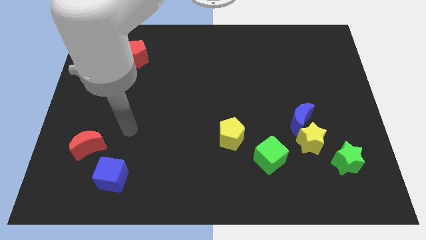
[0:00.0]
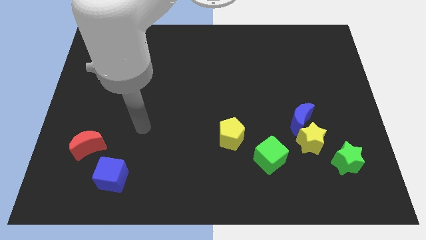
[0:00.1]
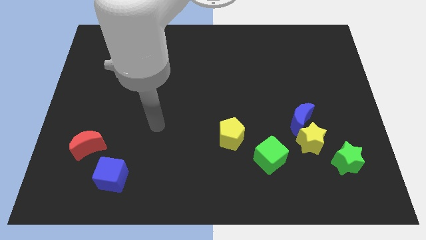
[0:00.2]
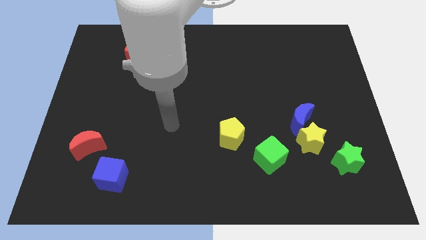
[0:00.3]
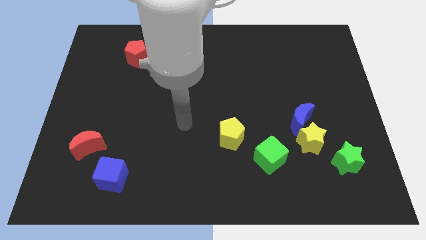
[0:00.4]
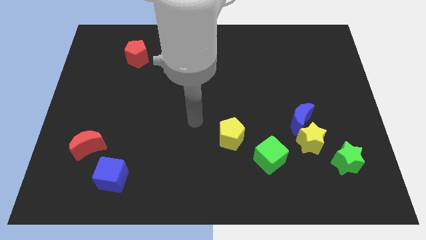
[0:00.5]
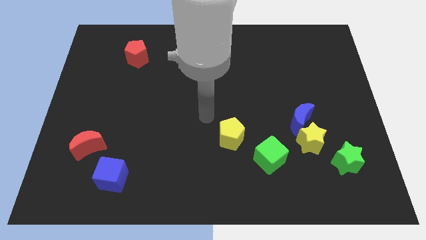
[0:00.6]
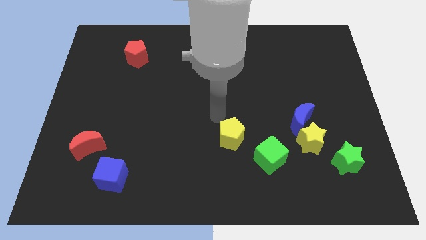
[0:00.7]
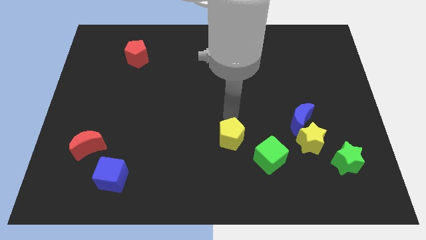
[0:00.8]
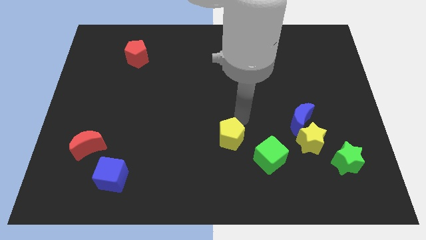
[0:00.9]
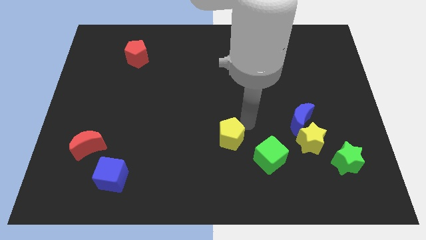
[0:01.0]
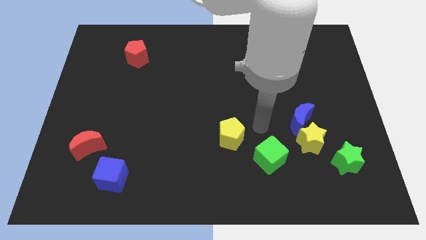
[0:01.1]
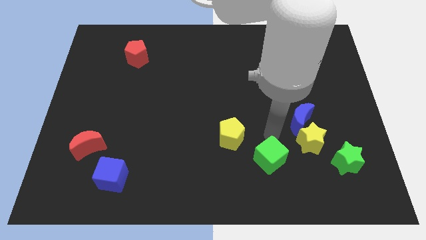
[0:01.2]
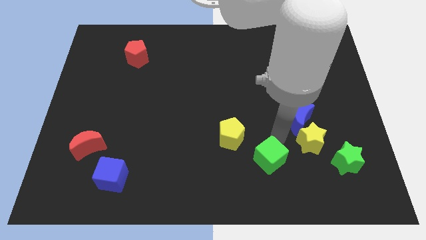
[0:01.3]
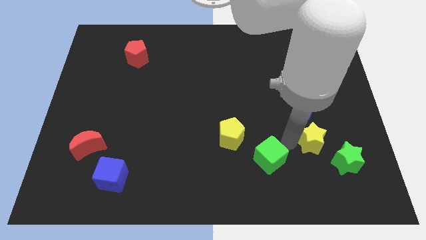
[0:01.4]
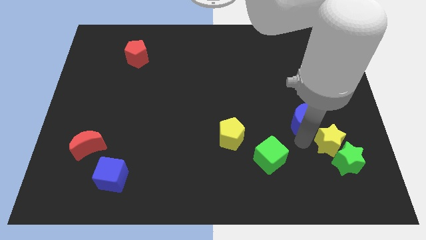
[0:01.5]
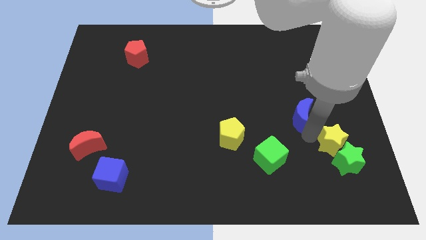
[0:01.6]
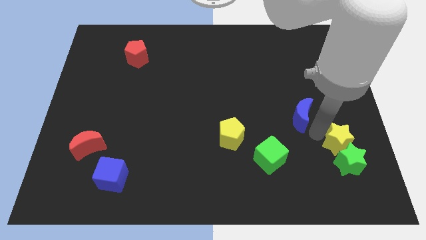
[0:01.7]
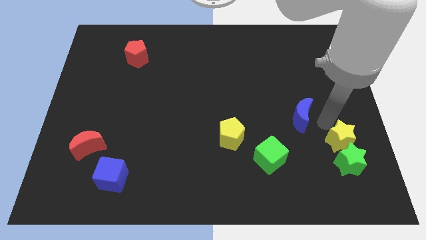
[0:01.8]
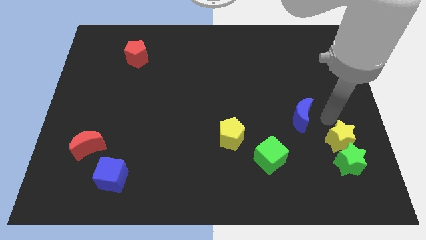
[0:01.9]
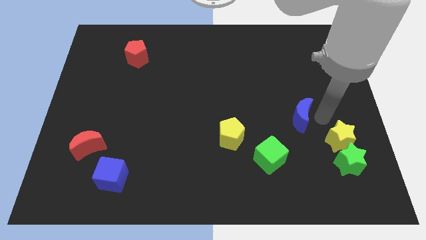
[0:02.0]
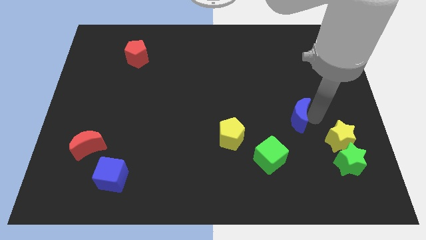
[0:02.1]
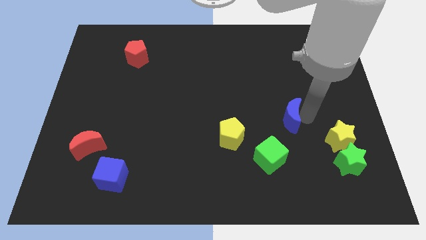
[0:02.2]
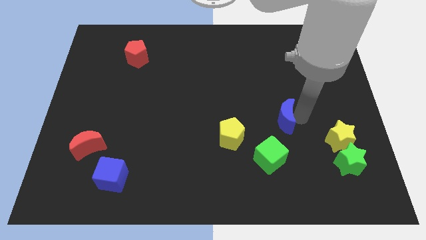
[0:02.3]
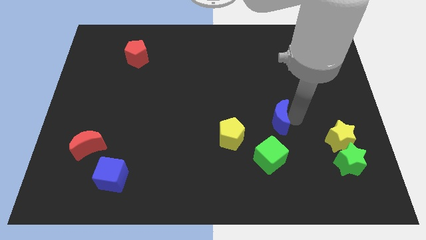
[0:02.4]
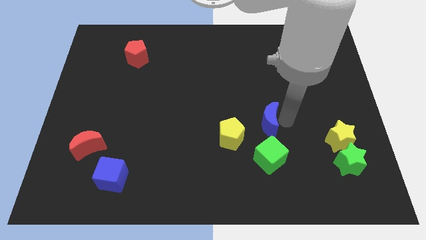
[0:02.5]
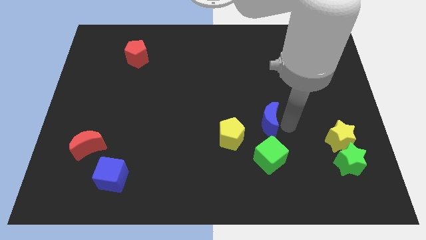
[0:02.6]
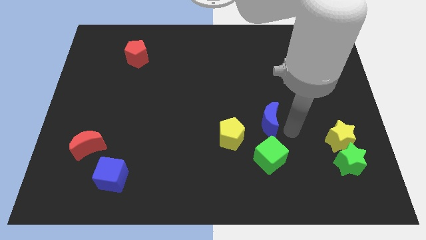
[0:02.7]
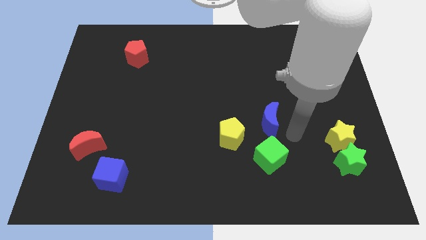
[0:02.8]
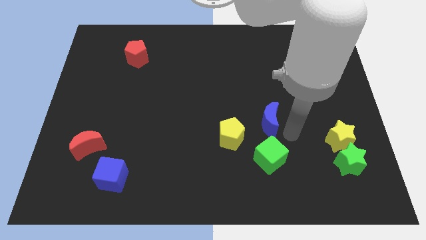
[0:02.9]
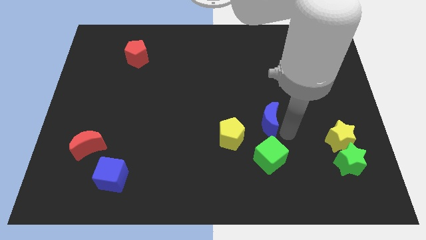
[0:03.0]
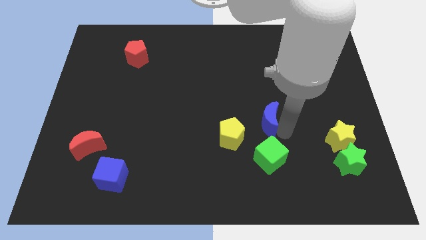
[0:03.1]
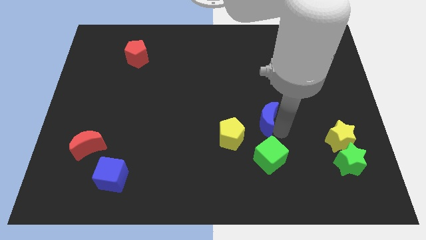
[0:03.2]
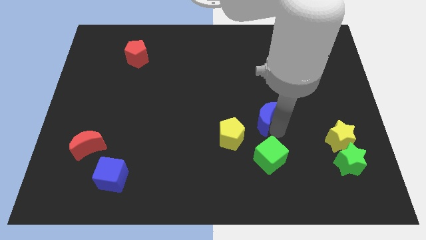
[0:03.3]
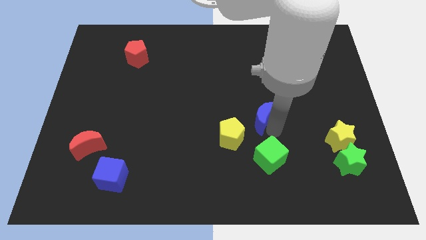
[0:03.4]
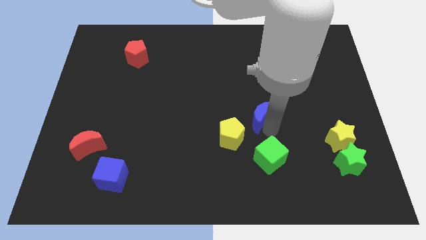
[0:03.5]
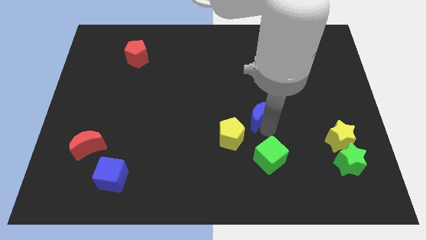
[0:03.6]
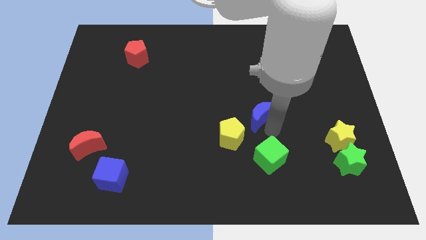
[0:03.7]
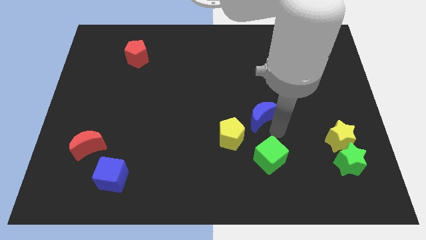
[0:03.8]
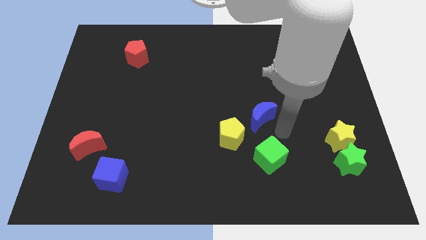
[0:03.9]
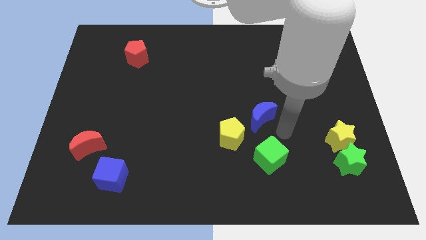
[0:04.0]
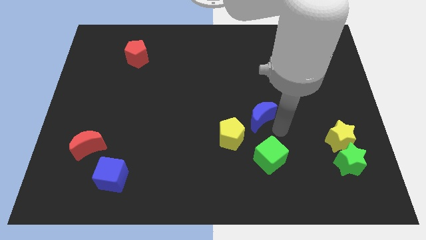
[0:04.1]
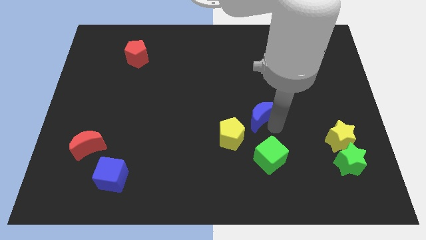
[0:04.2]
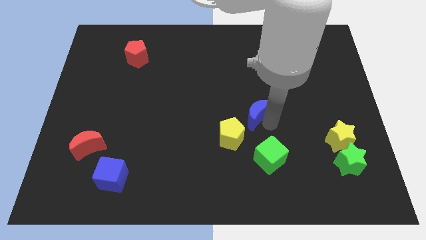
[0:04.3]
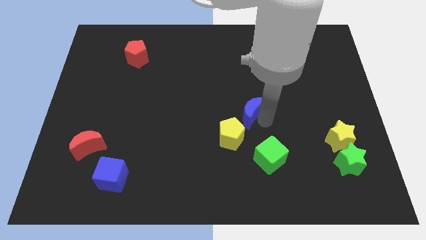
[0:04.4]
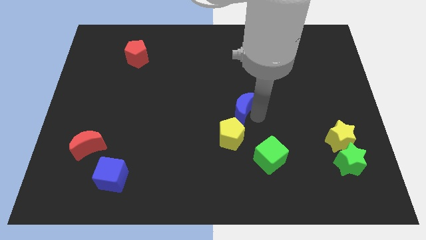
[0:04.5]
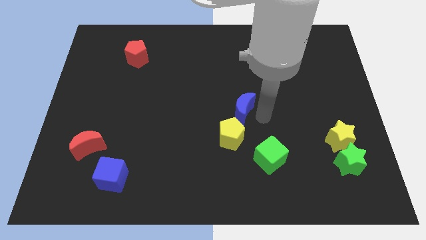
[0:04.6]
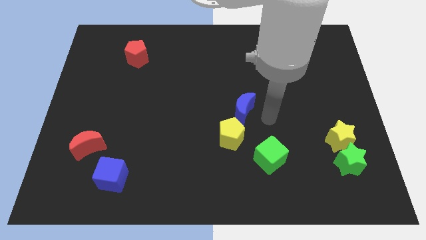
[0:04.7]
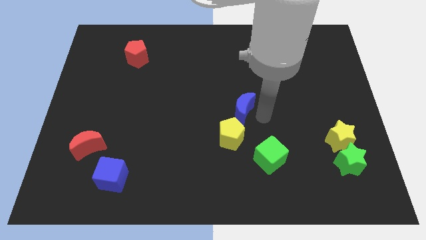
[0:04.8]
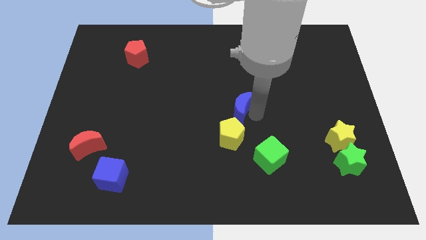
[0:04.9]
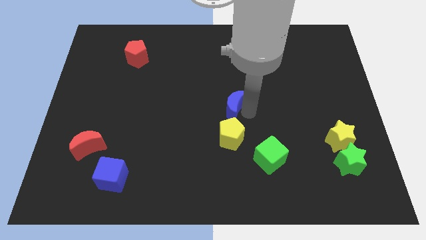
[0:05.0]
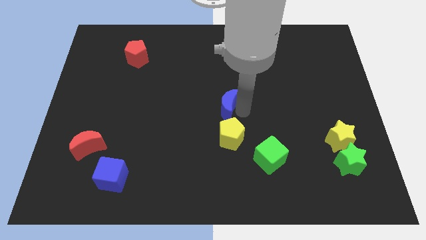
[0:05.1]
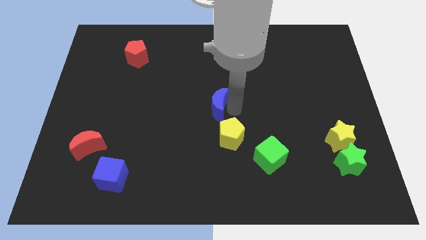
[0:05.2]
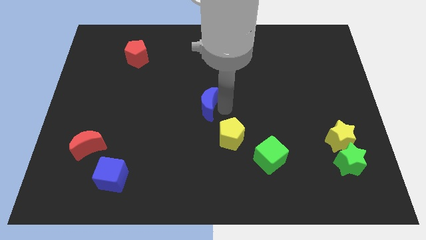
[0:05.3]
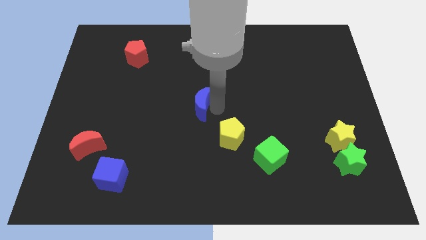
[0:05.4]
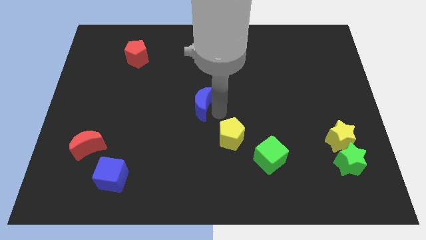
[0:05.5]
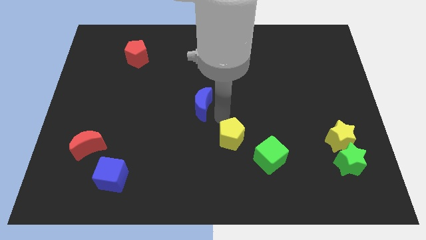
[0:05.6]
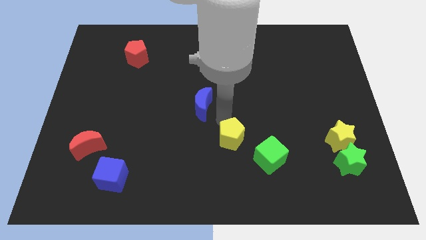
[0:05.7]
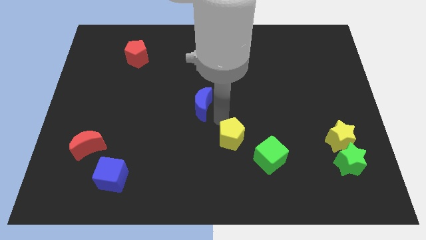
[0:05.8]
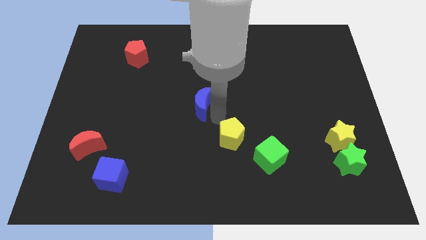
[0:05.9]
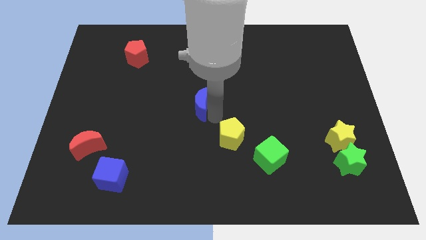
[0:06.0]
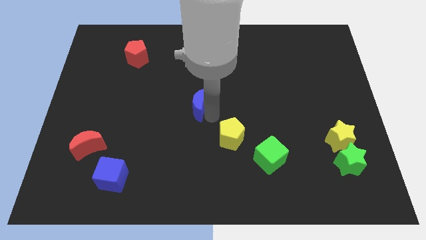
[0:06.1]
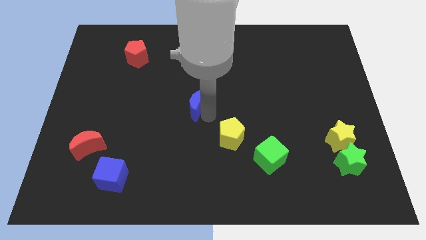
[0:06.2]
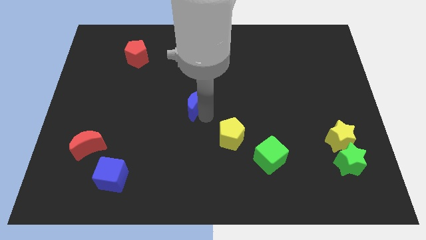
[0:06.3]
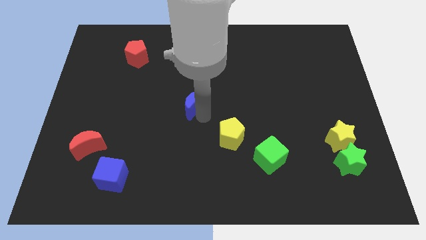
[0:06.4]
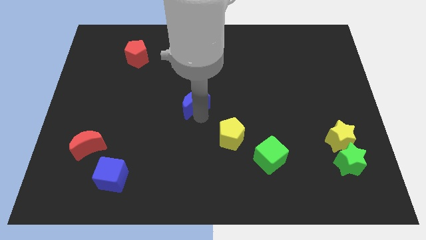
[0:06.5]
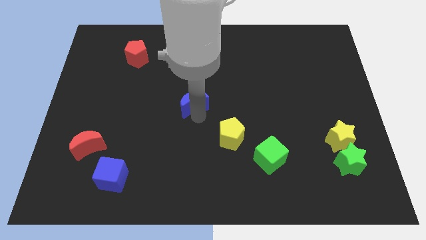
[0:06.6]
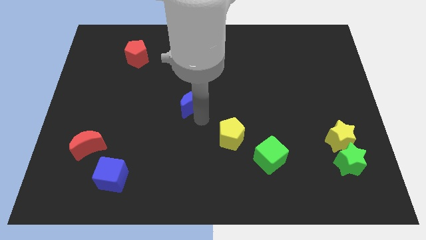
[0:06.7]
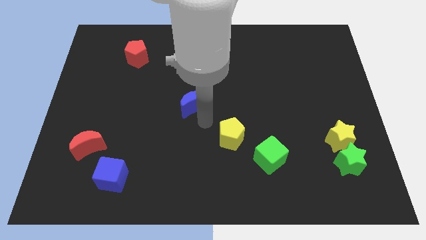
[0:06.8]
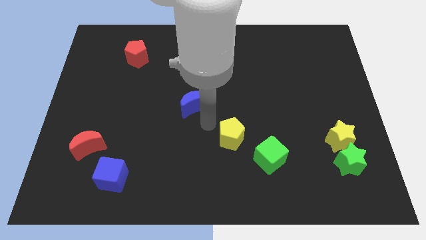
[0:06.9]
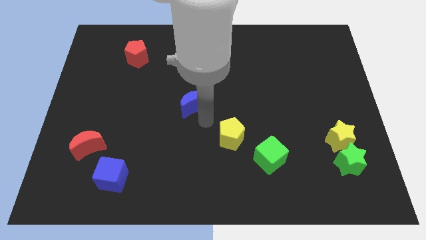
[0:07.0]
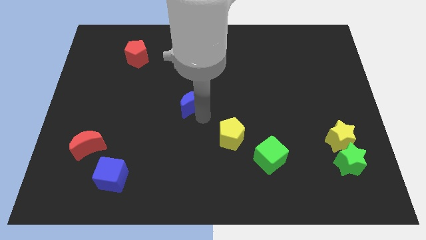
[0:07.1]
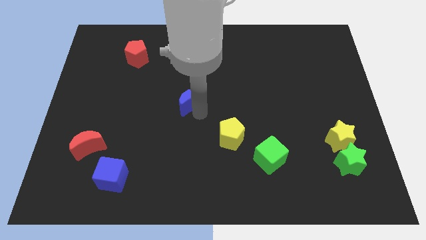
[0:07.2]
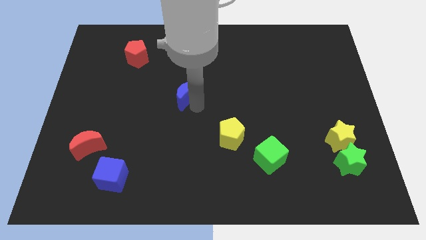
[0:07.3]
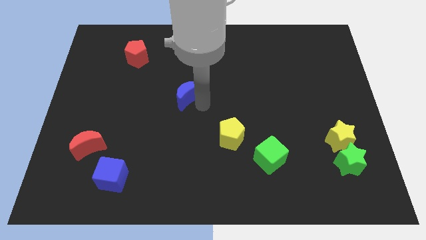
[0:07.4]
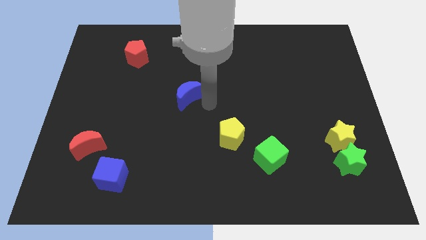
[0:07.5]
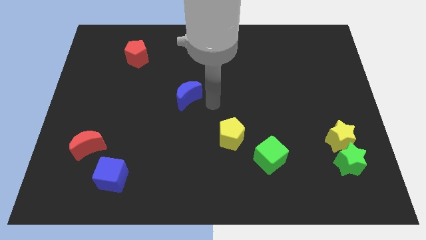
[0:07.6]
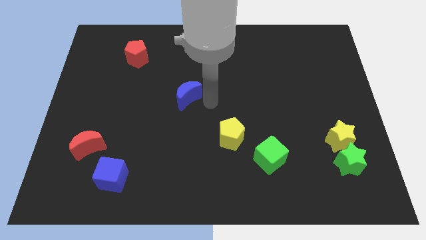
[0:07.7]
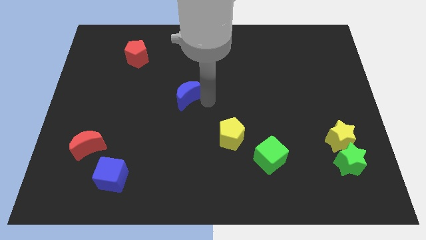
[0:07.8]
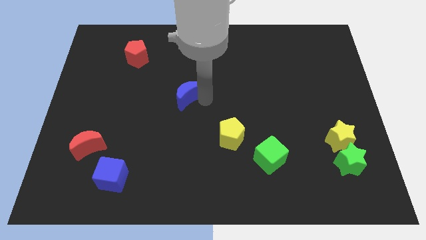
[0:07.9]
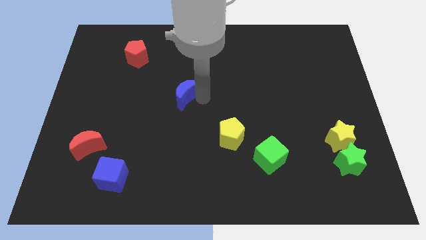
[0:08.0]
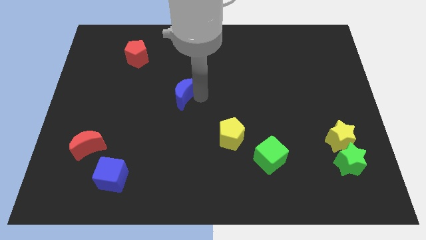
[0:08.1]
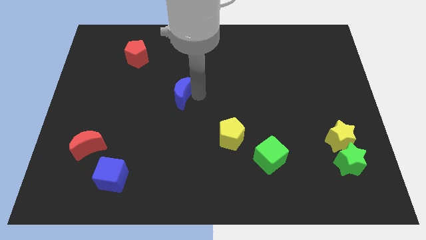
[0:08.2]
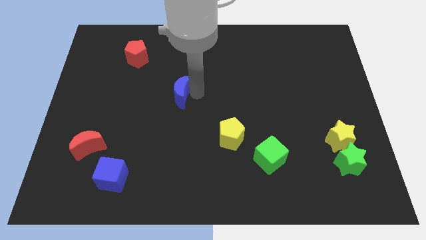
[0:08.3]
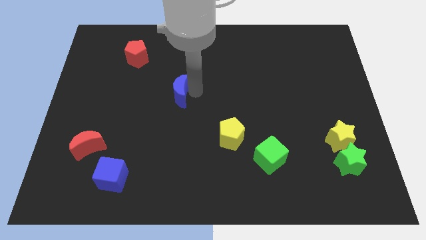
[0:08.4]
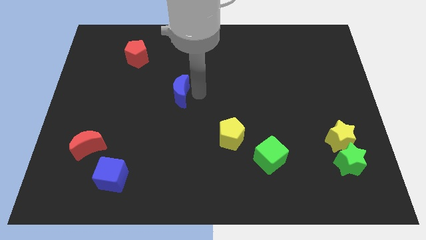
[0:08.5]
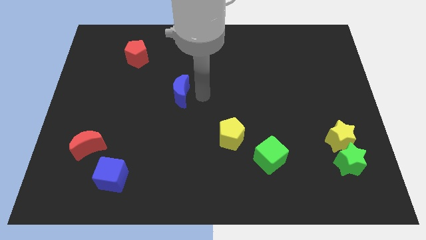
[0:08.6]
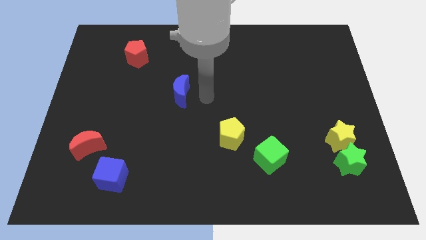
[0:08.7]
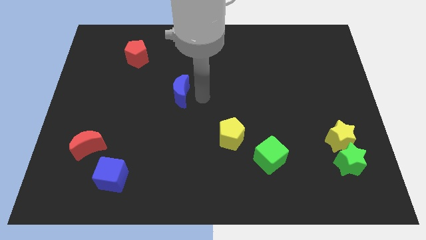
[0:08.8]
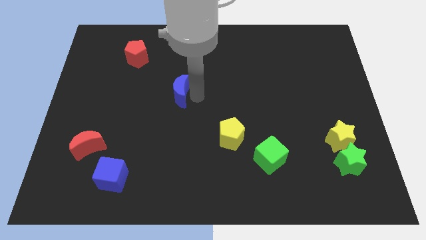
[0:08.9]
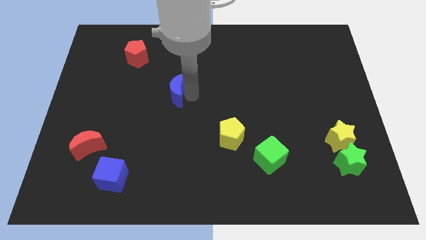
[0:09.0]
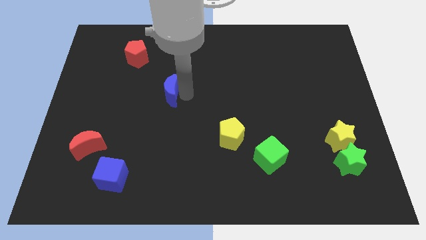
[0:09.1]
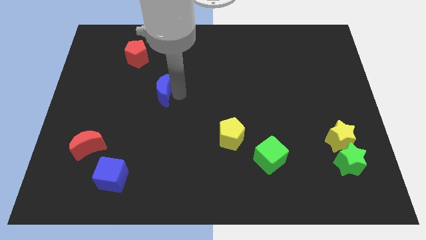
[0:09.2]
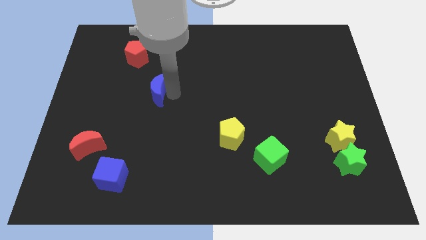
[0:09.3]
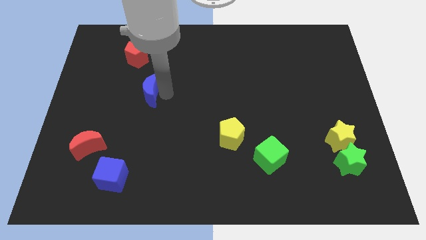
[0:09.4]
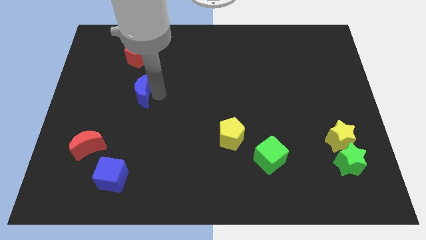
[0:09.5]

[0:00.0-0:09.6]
push the blue moon to the bottom side of the red pentagon
